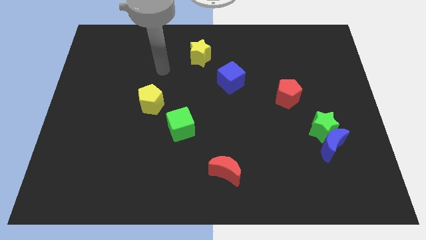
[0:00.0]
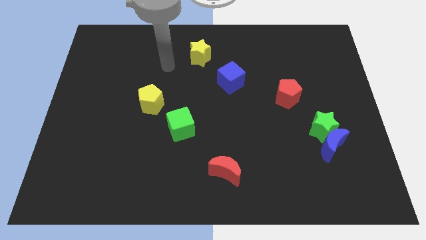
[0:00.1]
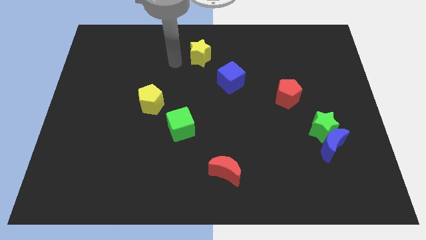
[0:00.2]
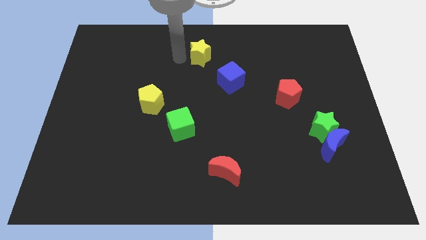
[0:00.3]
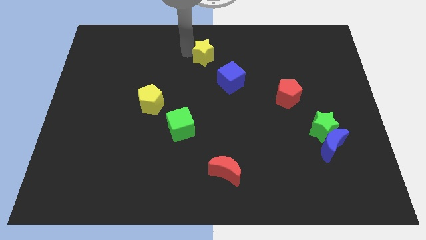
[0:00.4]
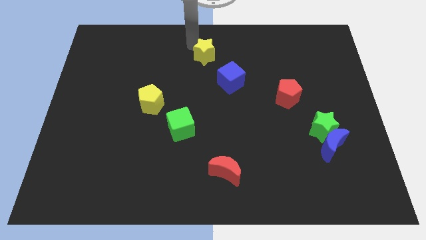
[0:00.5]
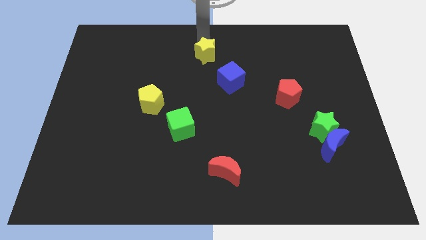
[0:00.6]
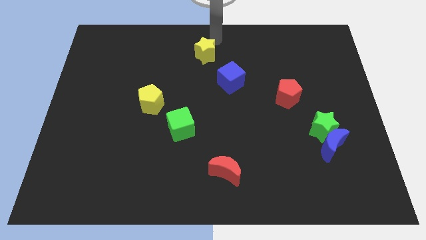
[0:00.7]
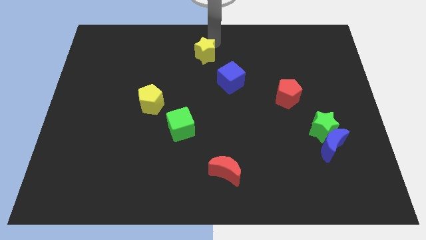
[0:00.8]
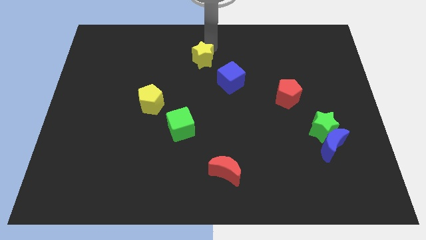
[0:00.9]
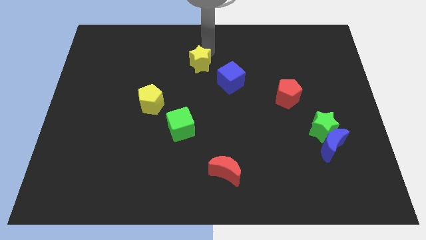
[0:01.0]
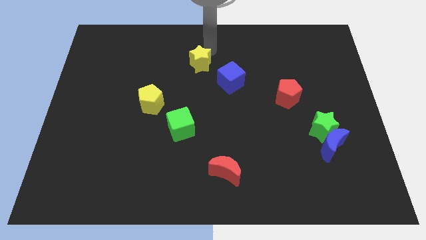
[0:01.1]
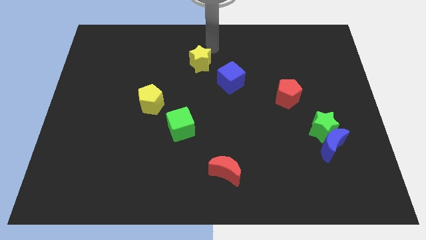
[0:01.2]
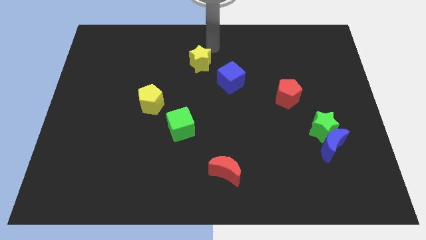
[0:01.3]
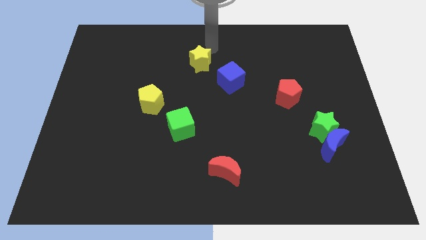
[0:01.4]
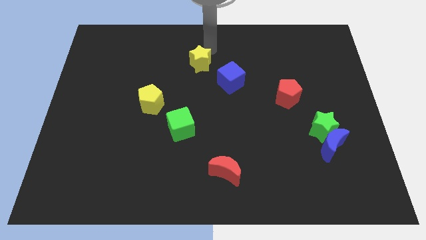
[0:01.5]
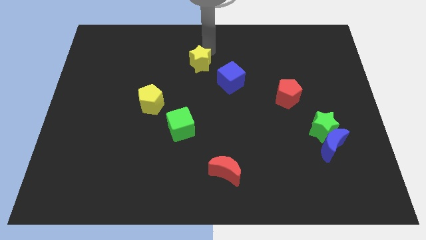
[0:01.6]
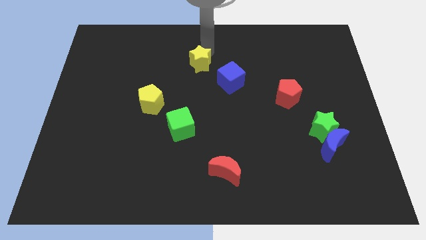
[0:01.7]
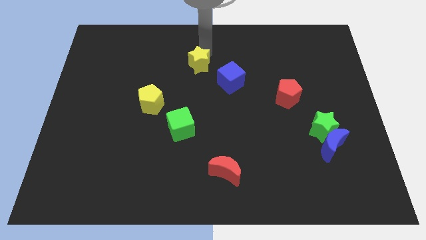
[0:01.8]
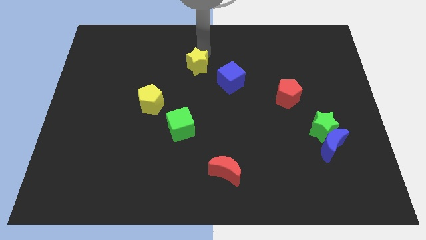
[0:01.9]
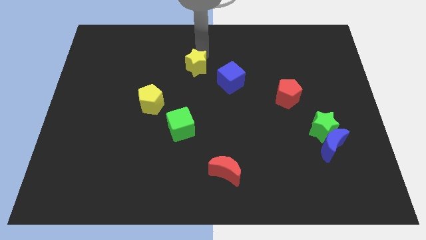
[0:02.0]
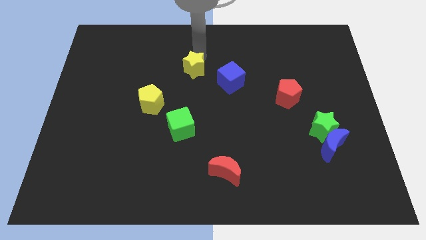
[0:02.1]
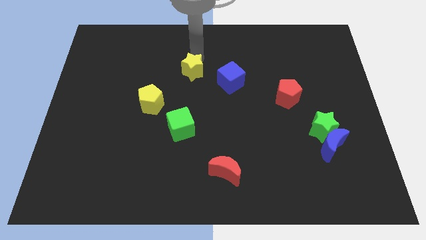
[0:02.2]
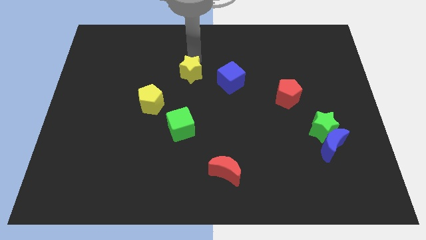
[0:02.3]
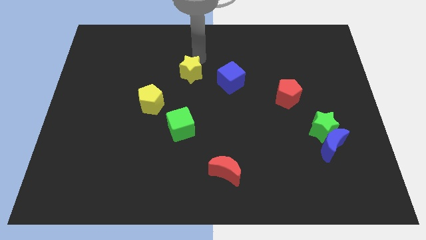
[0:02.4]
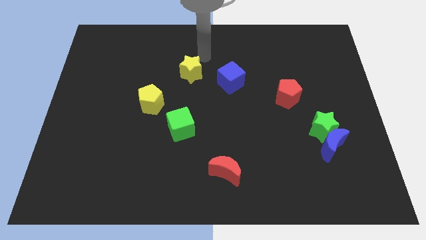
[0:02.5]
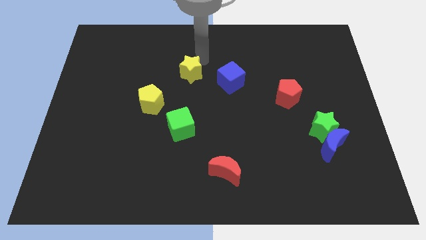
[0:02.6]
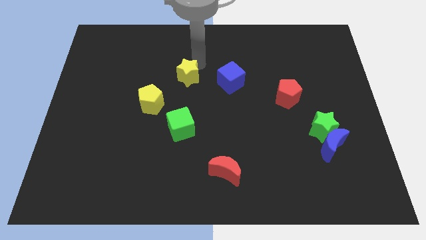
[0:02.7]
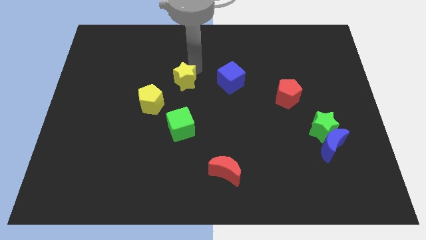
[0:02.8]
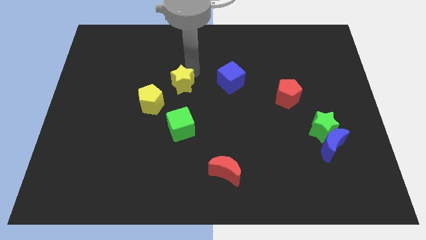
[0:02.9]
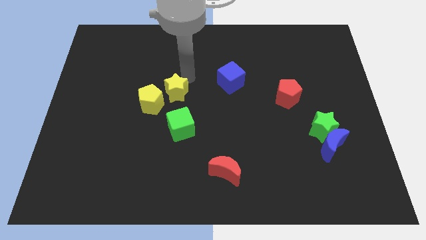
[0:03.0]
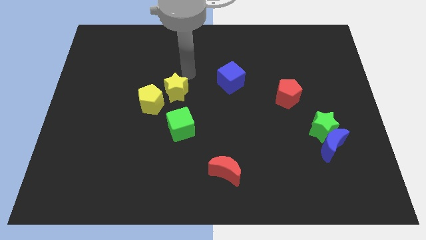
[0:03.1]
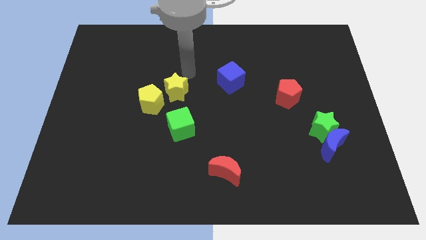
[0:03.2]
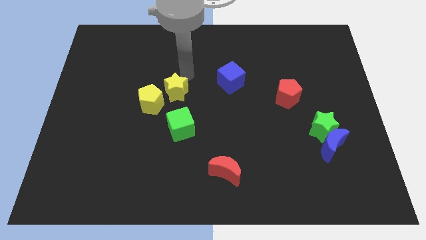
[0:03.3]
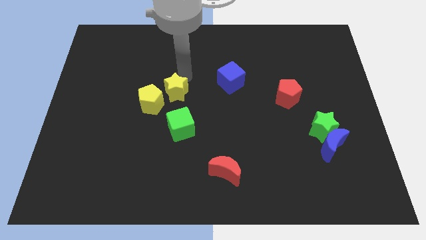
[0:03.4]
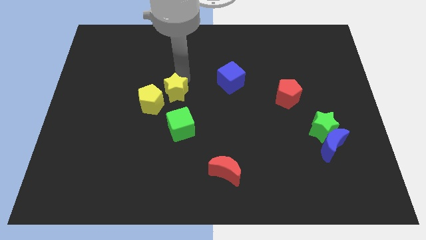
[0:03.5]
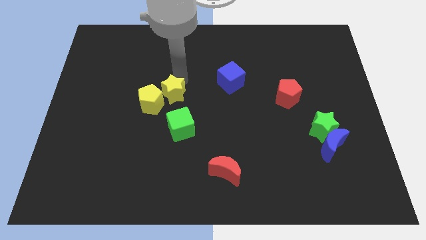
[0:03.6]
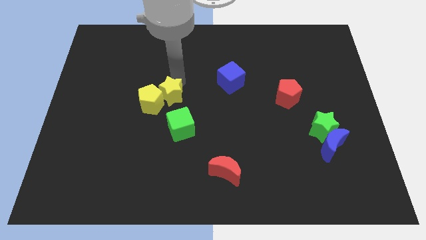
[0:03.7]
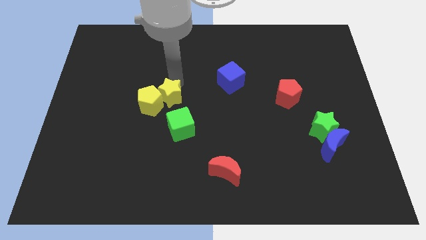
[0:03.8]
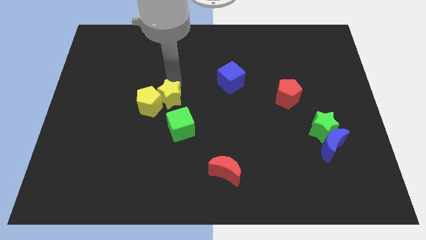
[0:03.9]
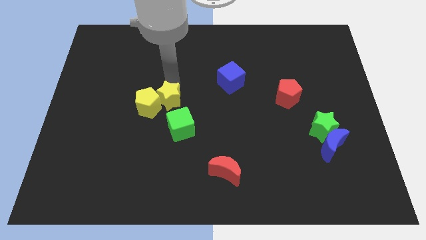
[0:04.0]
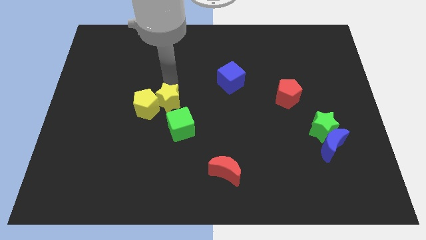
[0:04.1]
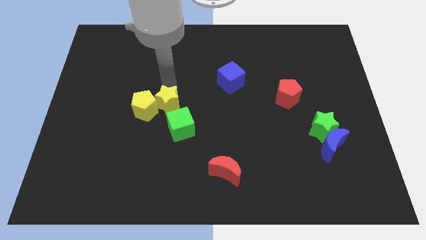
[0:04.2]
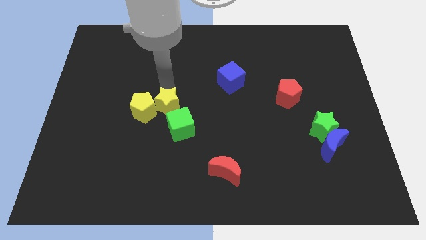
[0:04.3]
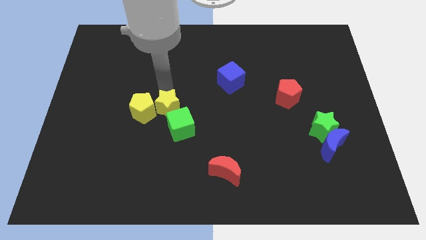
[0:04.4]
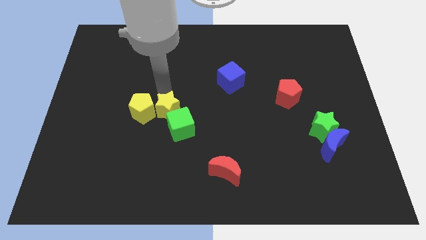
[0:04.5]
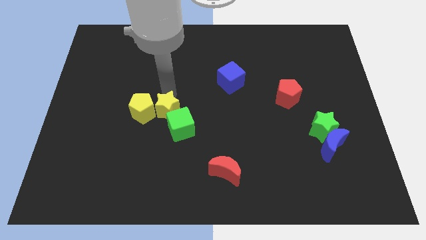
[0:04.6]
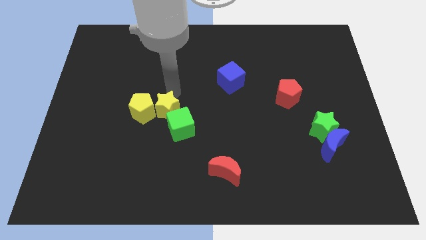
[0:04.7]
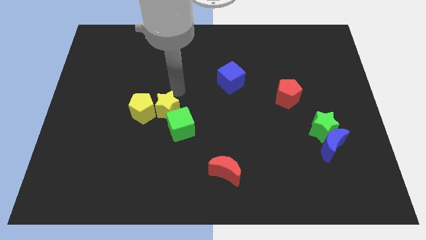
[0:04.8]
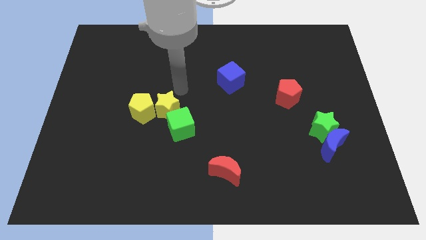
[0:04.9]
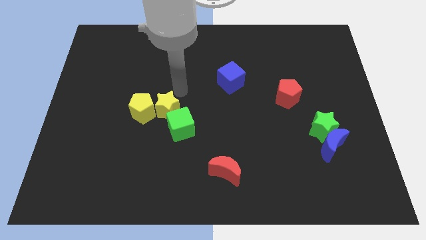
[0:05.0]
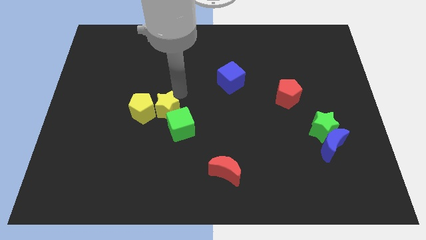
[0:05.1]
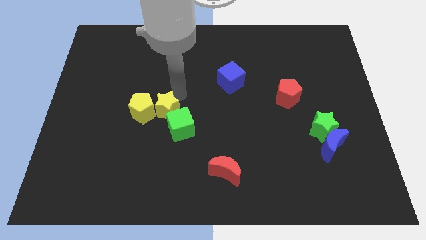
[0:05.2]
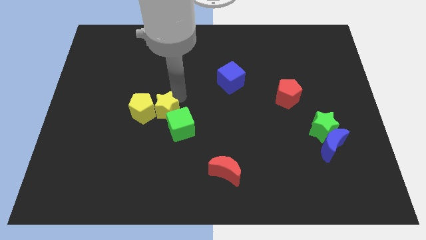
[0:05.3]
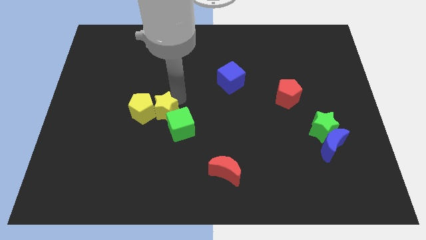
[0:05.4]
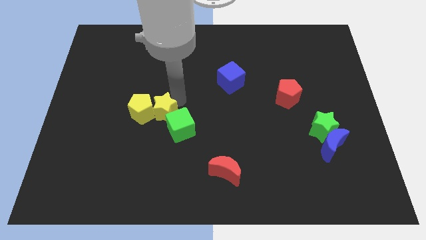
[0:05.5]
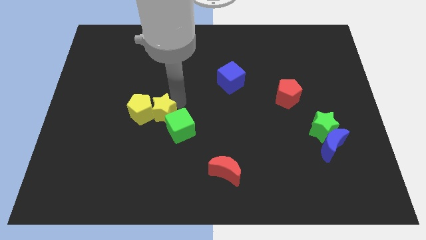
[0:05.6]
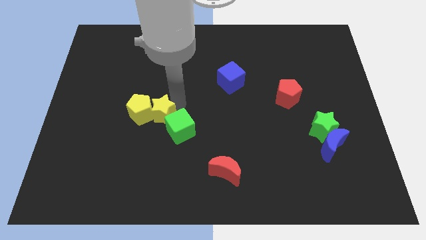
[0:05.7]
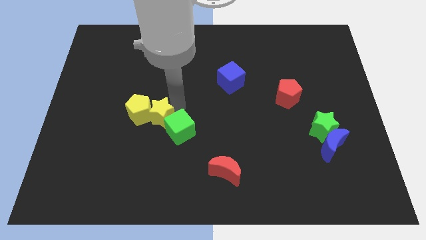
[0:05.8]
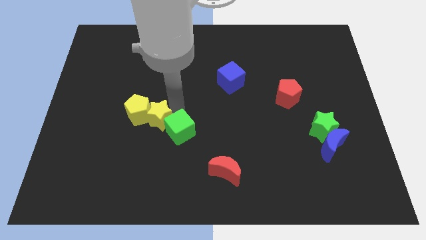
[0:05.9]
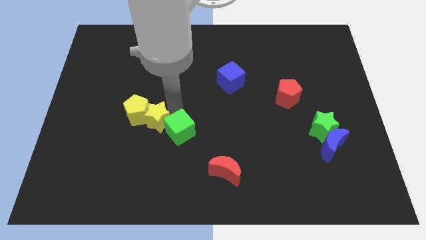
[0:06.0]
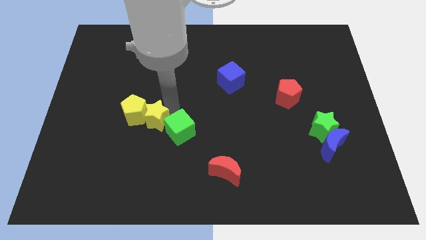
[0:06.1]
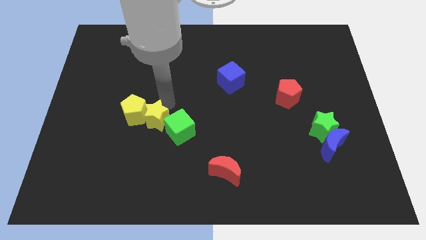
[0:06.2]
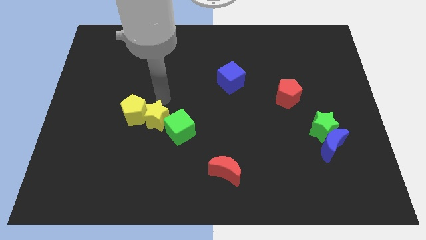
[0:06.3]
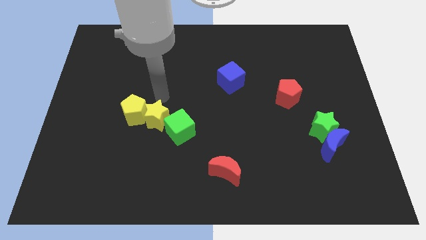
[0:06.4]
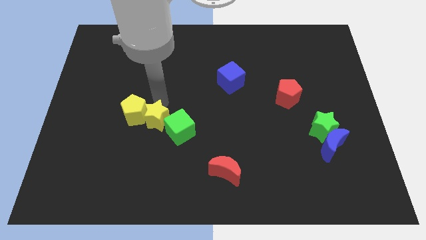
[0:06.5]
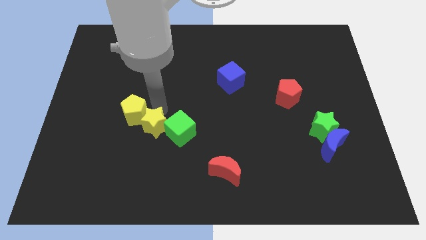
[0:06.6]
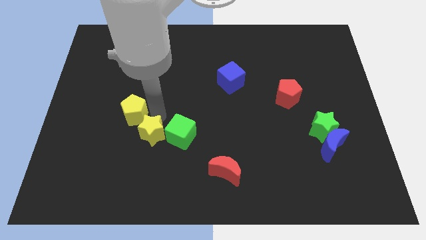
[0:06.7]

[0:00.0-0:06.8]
slide the yellow star diagonally down and to the left of the green cube

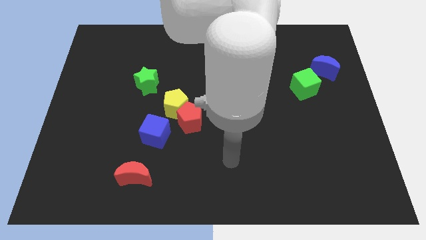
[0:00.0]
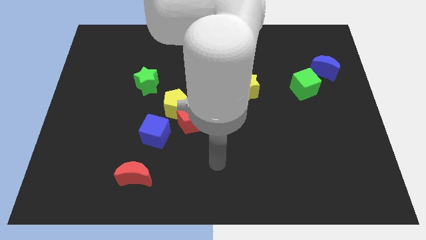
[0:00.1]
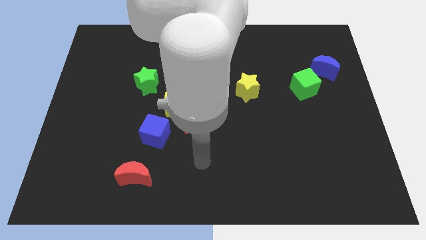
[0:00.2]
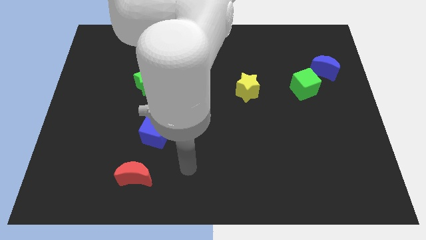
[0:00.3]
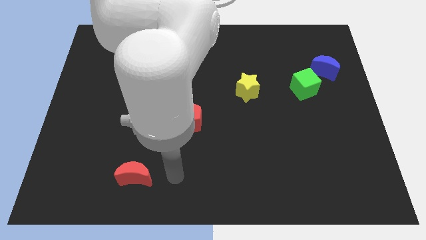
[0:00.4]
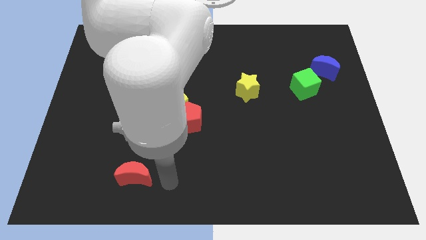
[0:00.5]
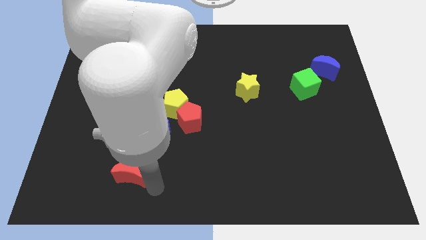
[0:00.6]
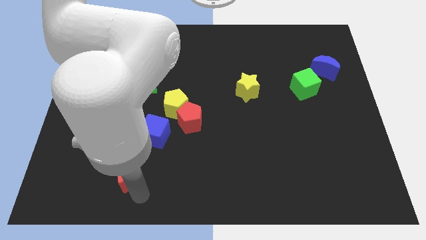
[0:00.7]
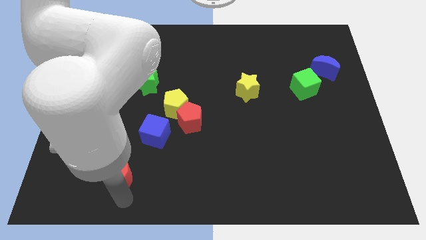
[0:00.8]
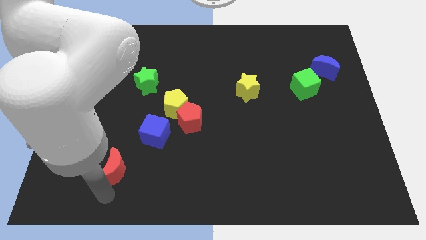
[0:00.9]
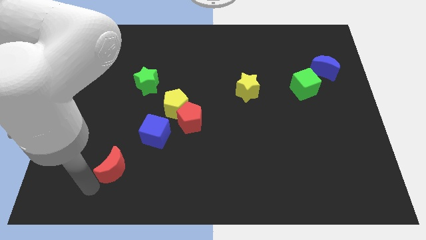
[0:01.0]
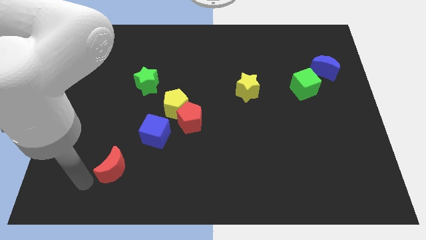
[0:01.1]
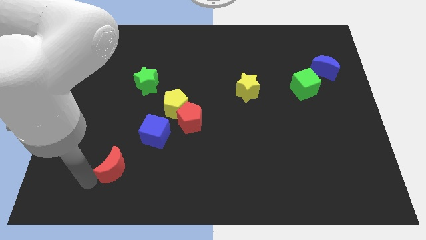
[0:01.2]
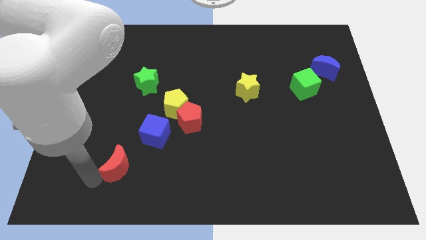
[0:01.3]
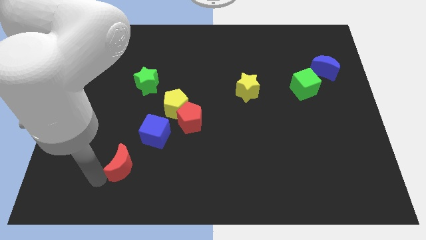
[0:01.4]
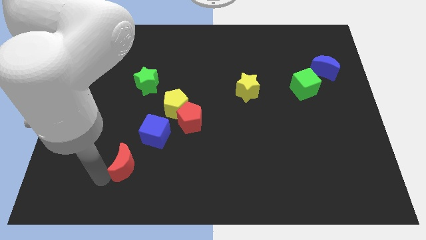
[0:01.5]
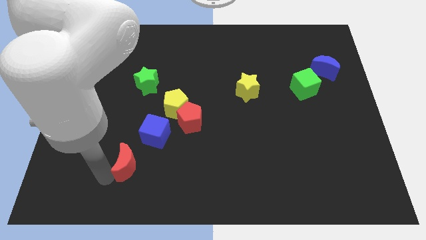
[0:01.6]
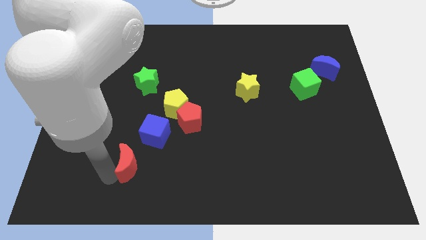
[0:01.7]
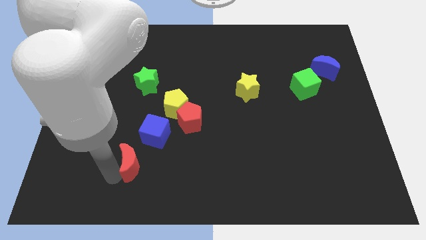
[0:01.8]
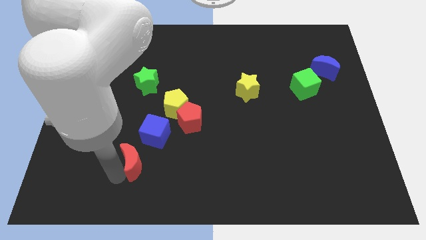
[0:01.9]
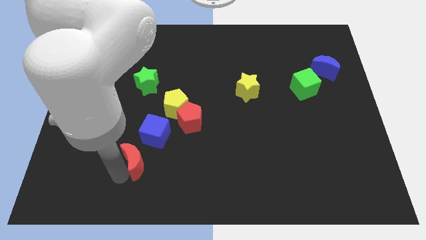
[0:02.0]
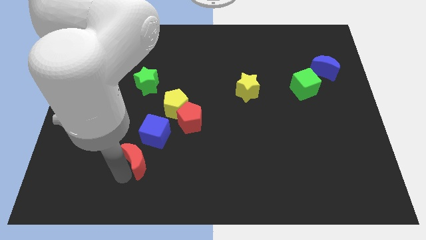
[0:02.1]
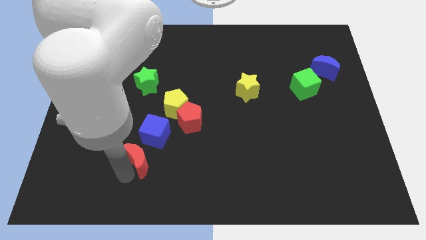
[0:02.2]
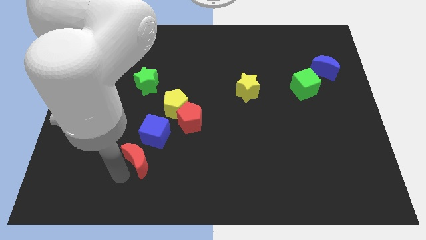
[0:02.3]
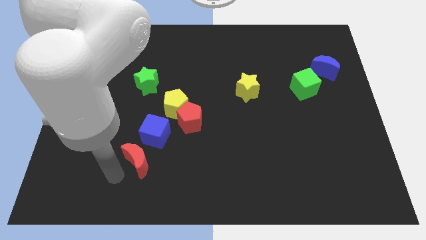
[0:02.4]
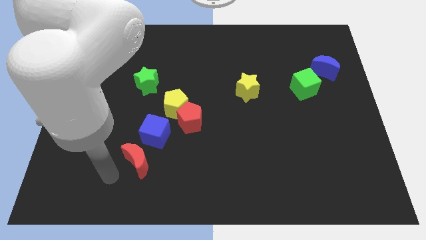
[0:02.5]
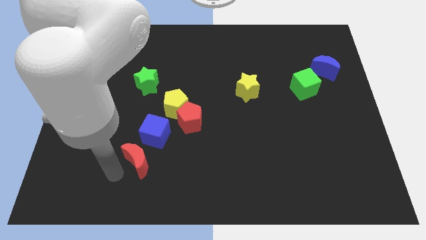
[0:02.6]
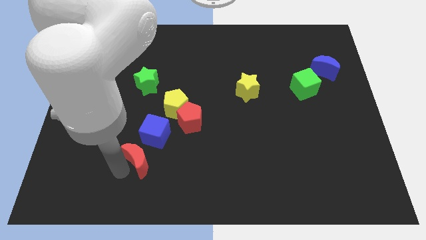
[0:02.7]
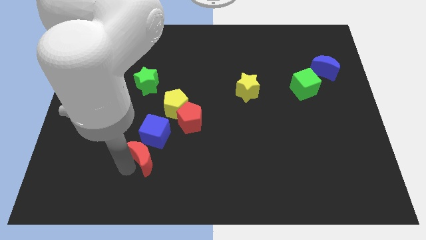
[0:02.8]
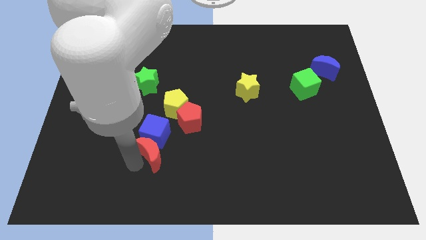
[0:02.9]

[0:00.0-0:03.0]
move the red moon to the bottom of the yellow pentagon
